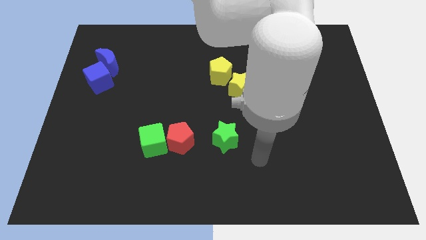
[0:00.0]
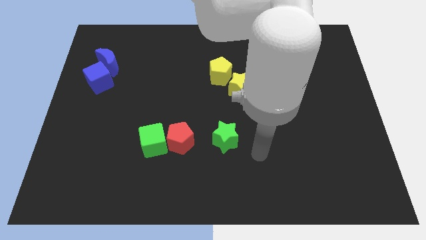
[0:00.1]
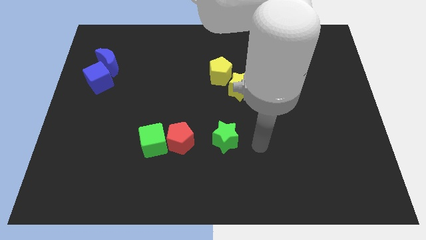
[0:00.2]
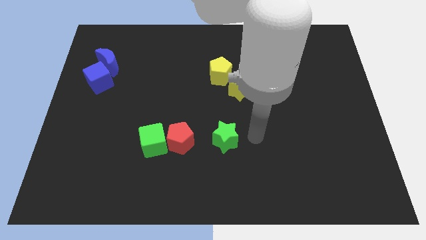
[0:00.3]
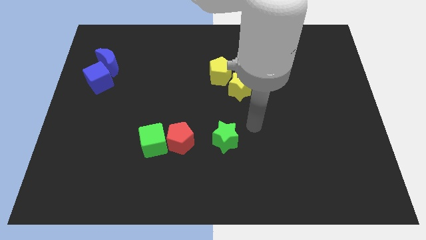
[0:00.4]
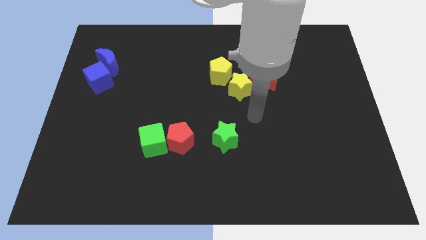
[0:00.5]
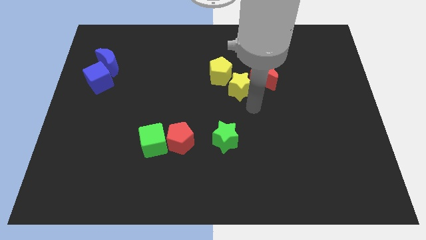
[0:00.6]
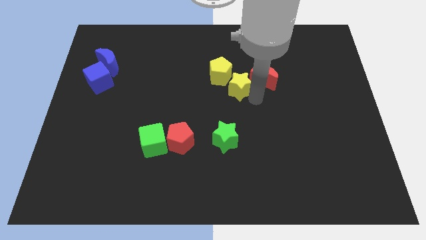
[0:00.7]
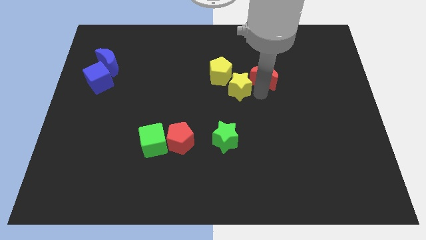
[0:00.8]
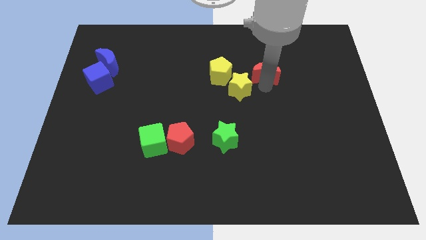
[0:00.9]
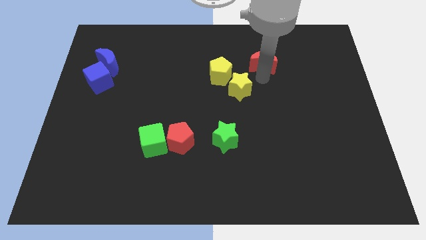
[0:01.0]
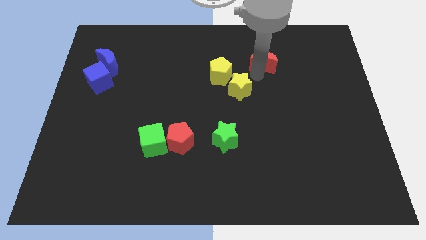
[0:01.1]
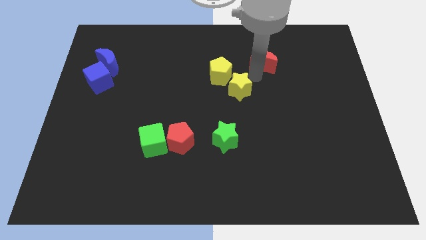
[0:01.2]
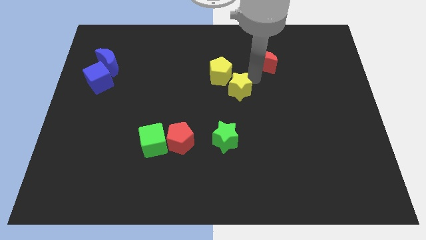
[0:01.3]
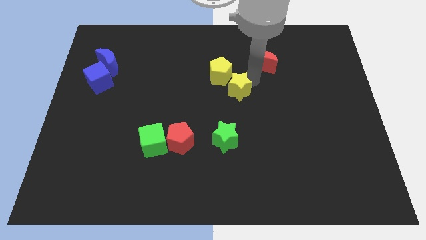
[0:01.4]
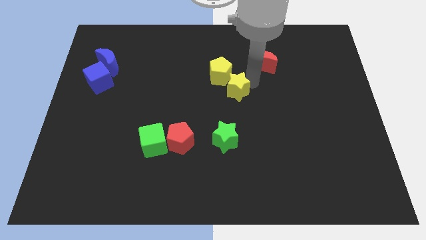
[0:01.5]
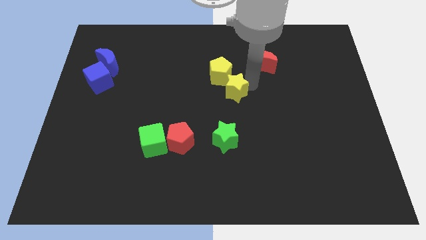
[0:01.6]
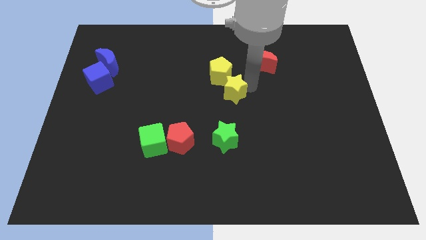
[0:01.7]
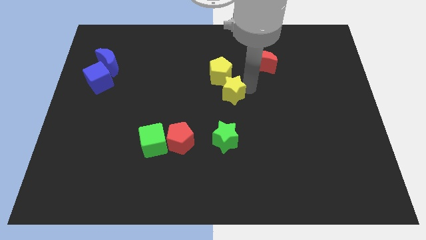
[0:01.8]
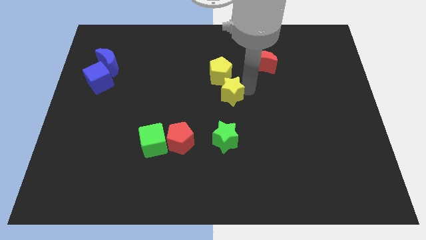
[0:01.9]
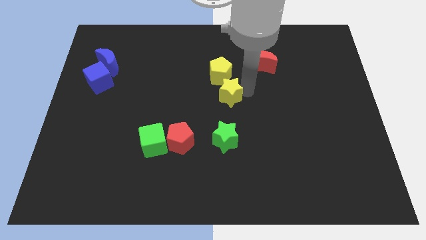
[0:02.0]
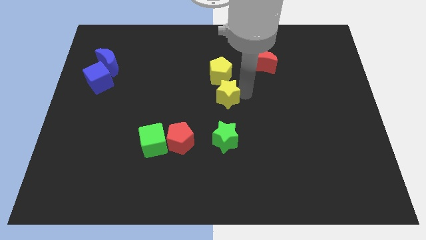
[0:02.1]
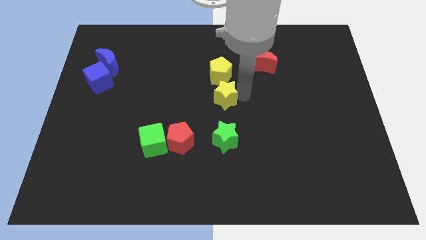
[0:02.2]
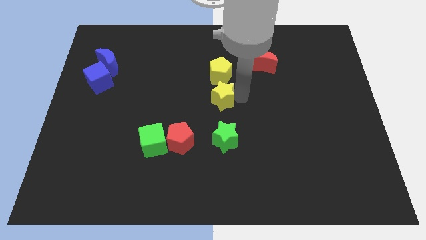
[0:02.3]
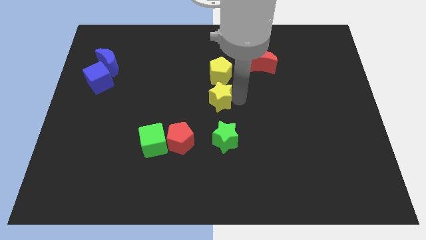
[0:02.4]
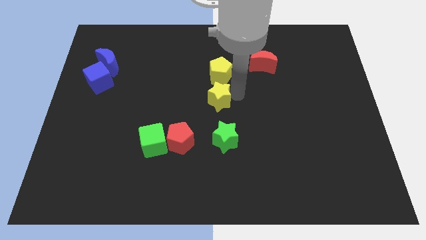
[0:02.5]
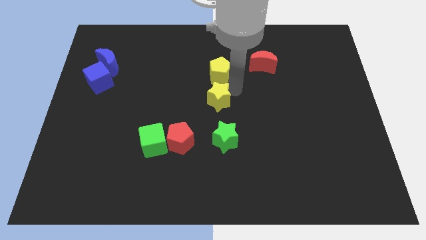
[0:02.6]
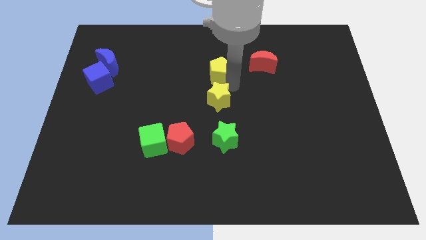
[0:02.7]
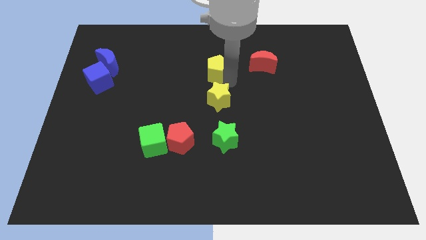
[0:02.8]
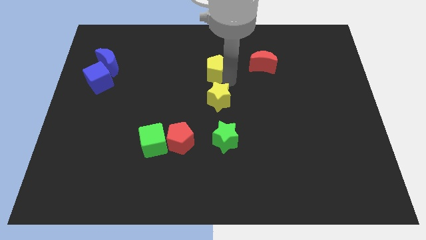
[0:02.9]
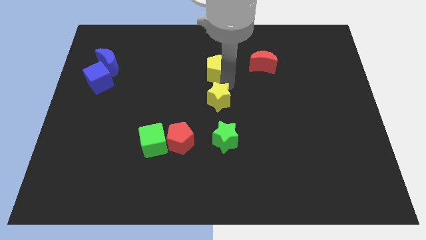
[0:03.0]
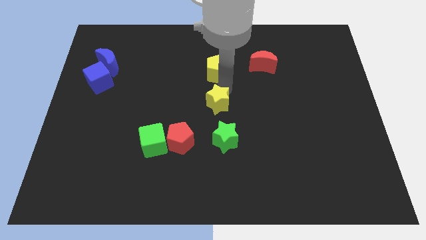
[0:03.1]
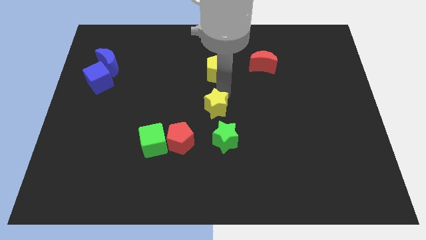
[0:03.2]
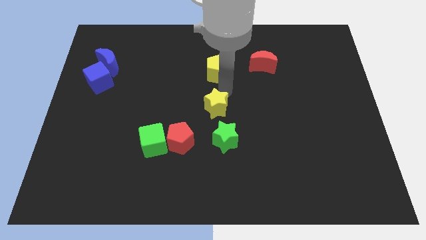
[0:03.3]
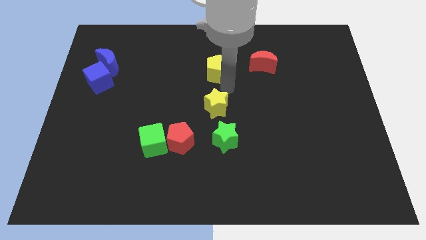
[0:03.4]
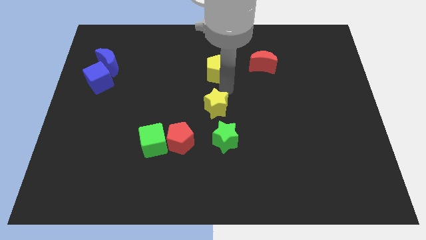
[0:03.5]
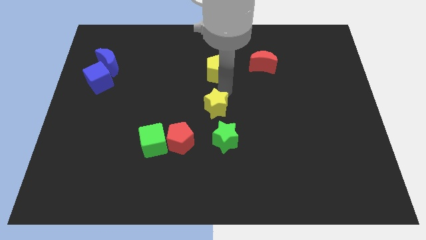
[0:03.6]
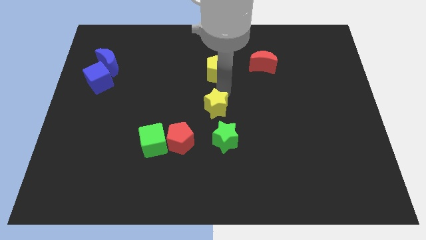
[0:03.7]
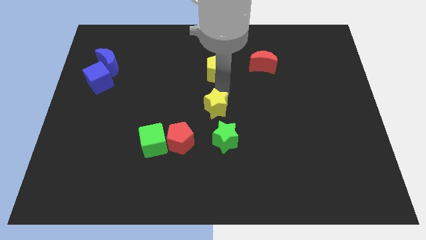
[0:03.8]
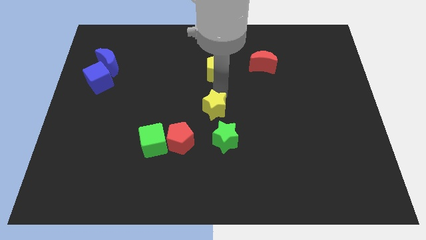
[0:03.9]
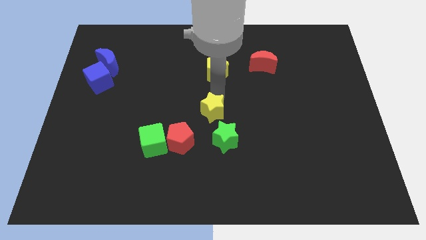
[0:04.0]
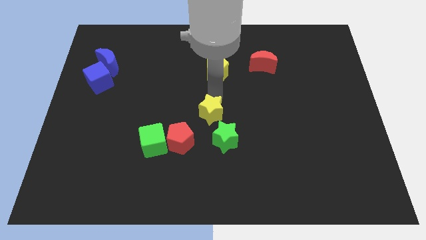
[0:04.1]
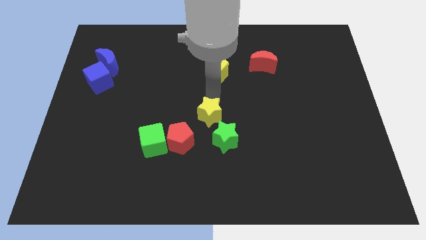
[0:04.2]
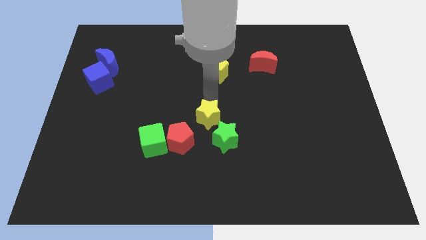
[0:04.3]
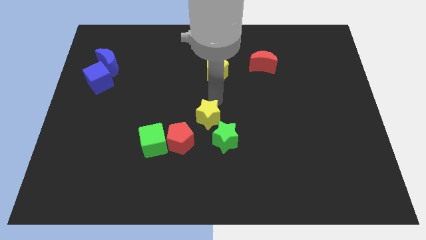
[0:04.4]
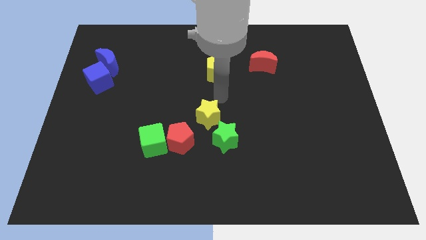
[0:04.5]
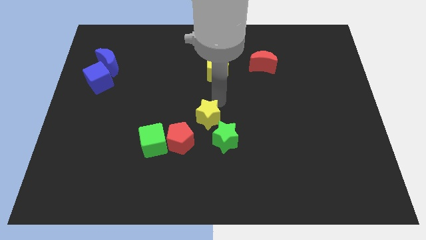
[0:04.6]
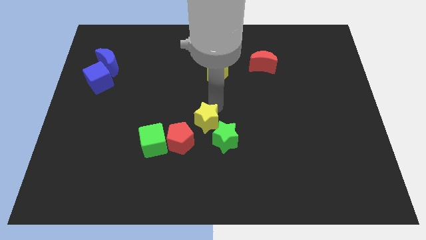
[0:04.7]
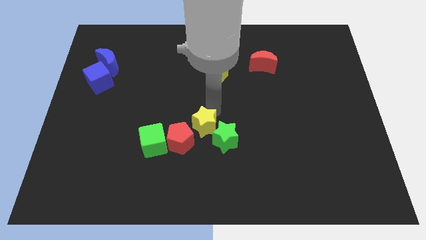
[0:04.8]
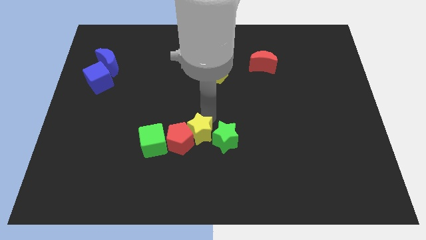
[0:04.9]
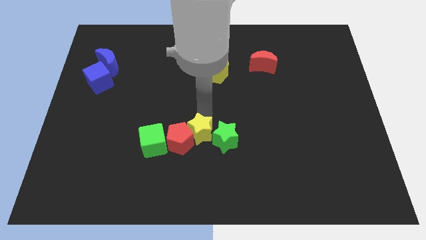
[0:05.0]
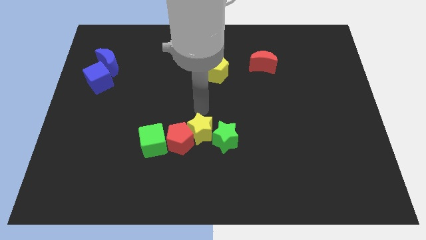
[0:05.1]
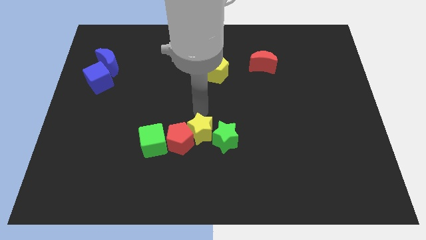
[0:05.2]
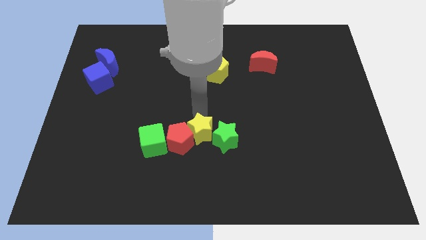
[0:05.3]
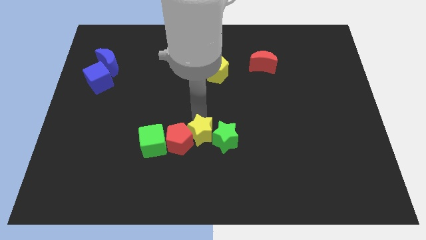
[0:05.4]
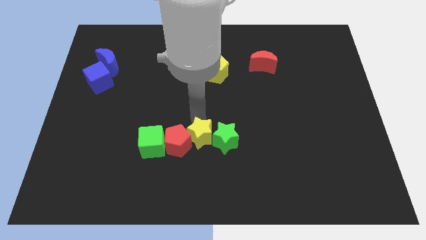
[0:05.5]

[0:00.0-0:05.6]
push the yellow star to the bottom right side of the red pentagon

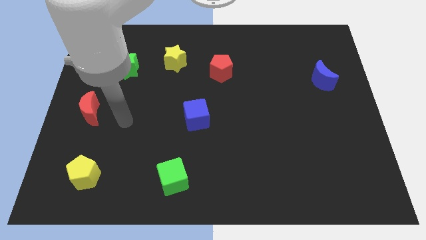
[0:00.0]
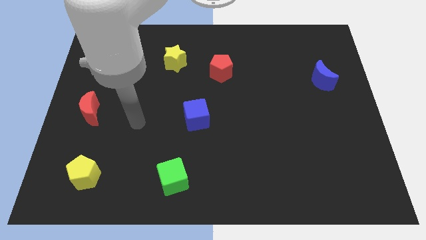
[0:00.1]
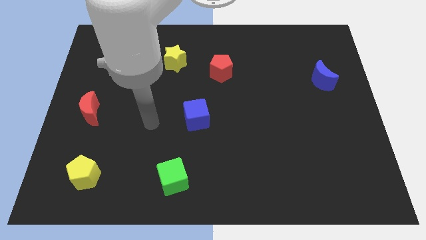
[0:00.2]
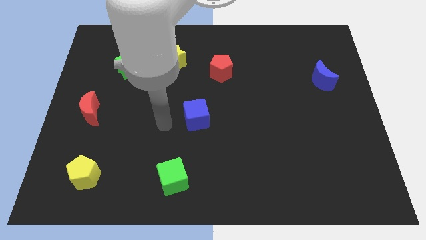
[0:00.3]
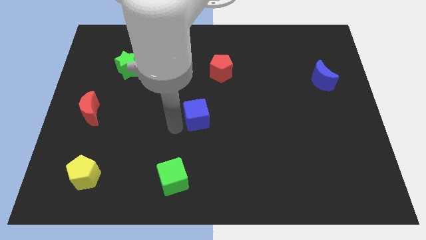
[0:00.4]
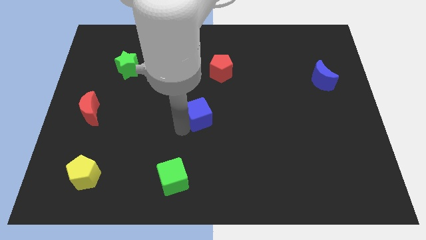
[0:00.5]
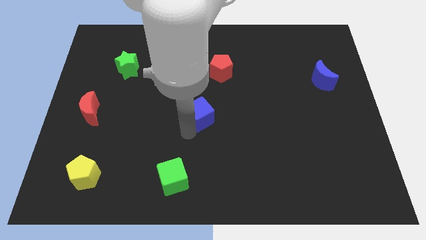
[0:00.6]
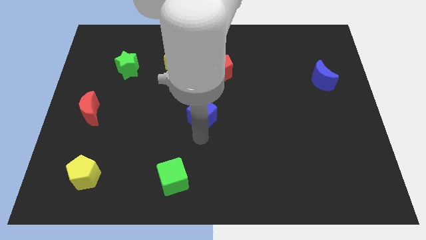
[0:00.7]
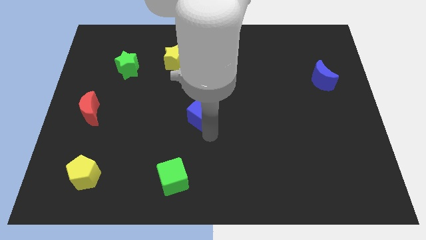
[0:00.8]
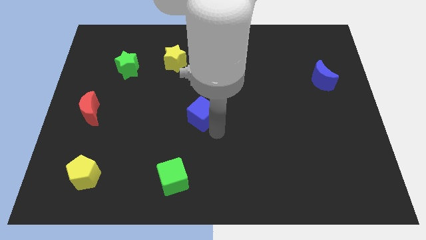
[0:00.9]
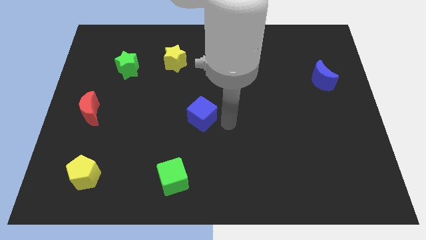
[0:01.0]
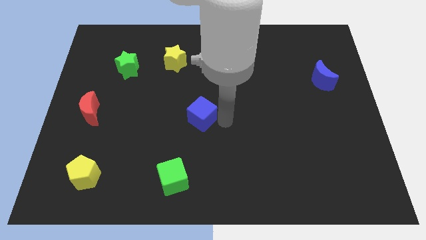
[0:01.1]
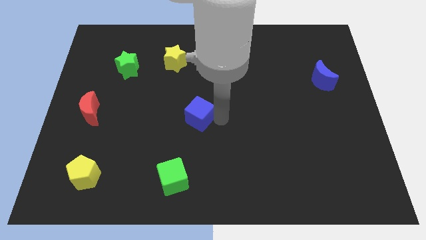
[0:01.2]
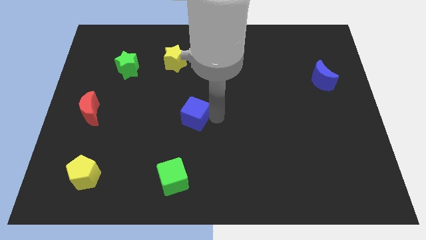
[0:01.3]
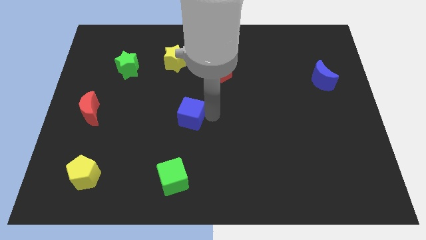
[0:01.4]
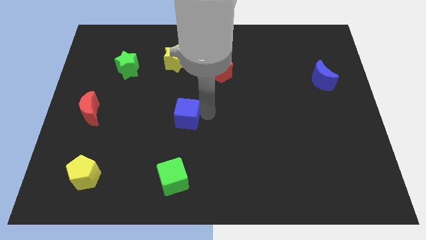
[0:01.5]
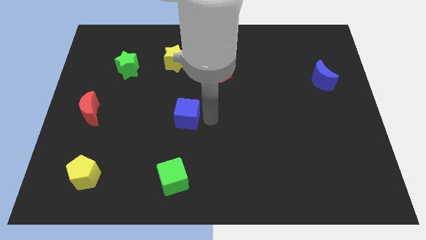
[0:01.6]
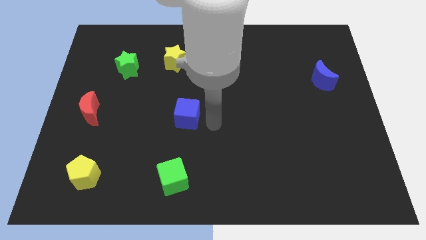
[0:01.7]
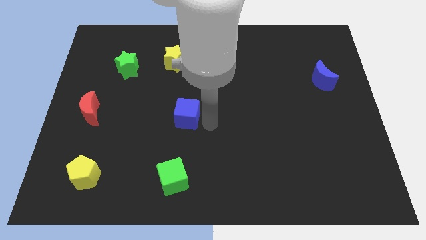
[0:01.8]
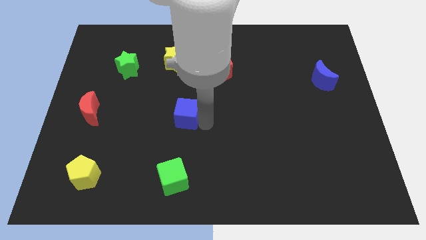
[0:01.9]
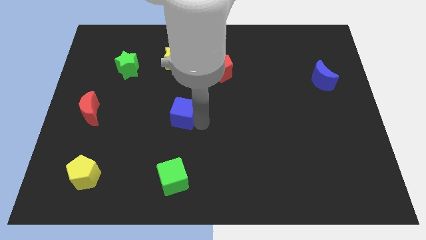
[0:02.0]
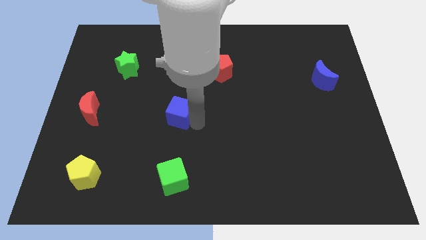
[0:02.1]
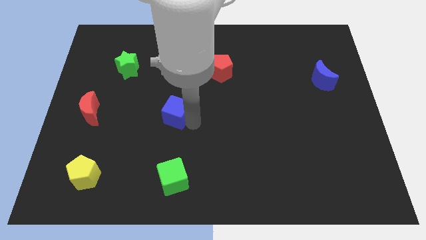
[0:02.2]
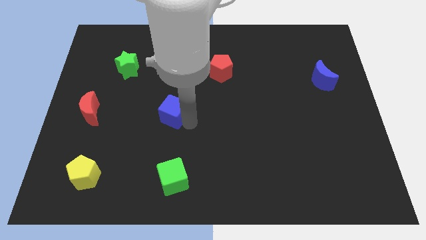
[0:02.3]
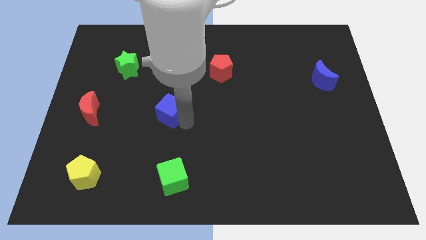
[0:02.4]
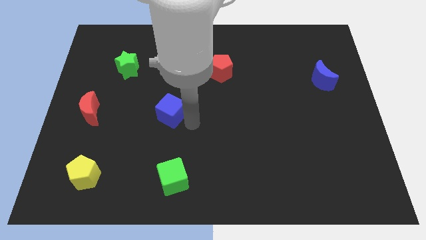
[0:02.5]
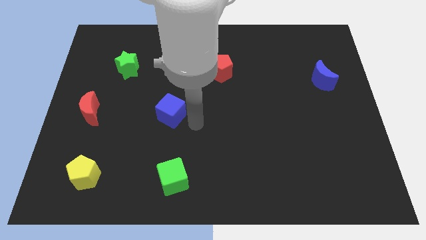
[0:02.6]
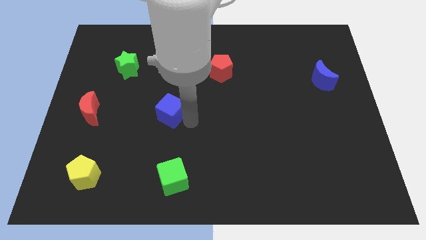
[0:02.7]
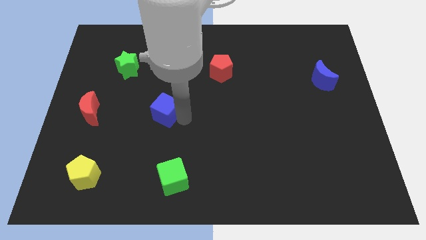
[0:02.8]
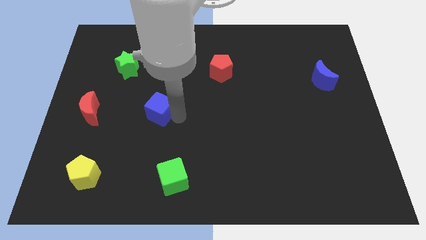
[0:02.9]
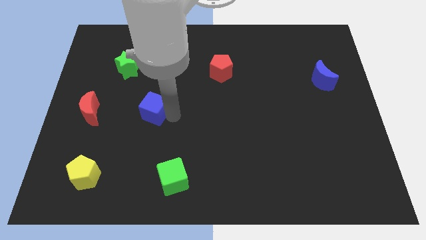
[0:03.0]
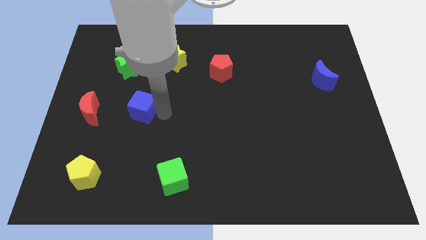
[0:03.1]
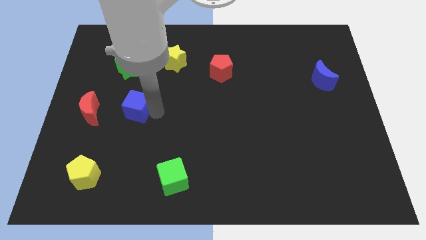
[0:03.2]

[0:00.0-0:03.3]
push the blue cube to the bottom side of the green star
